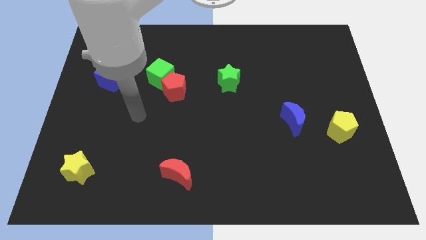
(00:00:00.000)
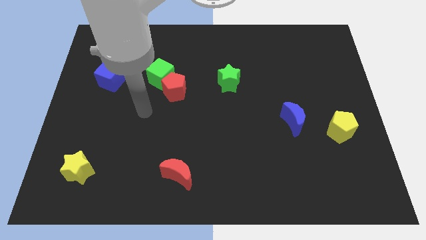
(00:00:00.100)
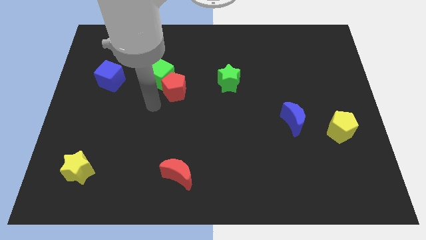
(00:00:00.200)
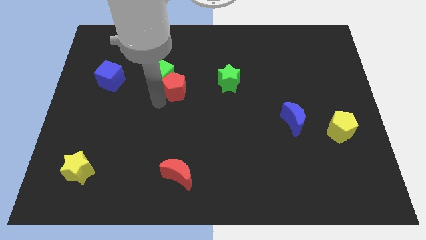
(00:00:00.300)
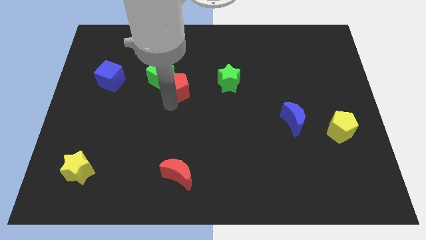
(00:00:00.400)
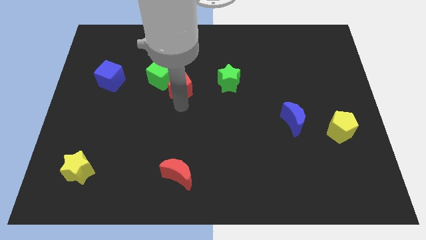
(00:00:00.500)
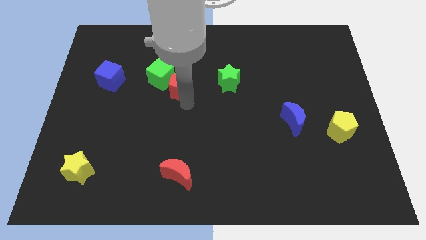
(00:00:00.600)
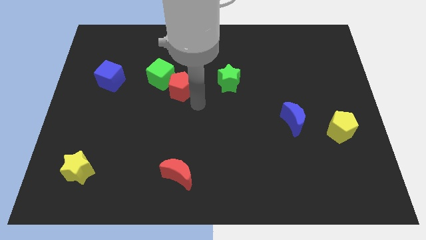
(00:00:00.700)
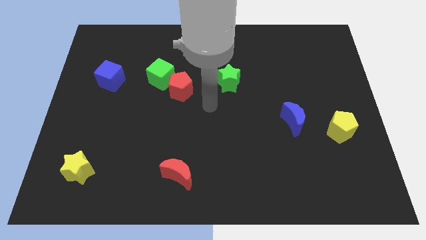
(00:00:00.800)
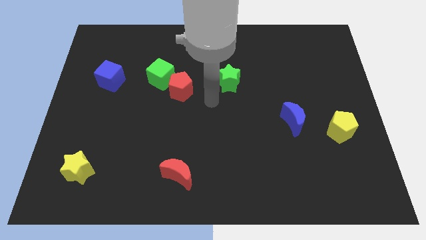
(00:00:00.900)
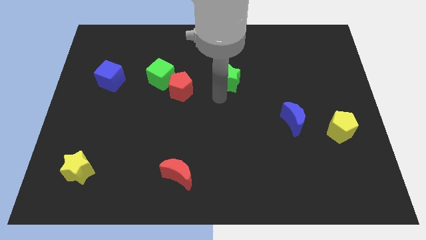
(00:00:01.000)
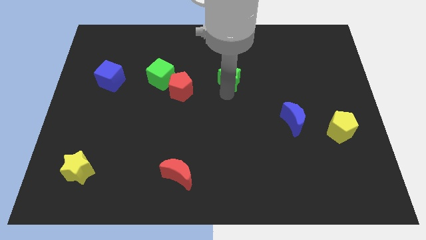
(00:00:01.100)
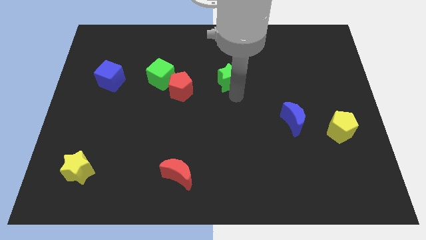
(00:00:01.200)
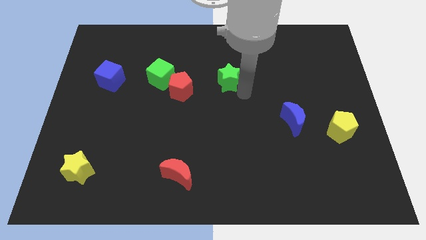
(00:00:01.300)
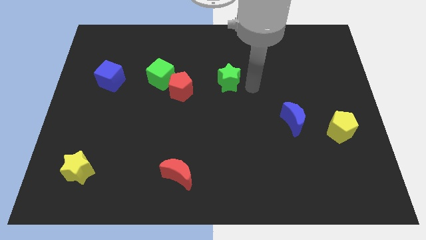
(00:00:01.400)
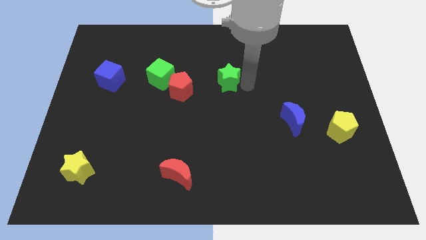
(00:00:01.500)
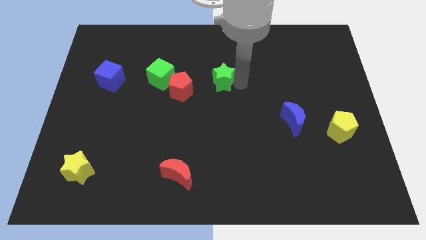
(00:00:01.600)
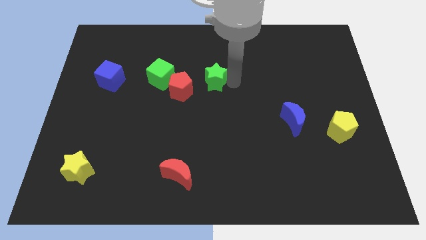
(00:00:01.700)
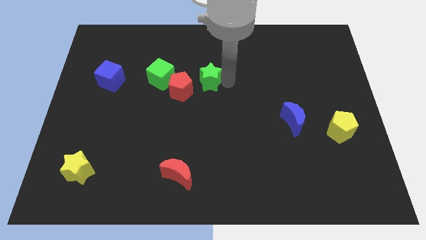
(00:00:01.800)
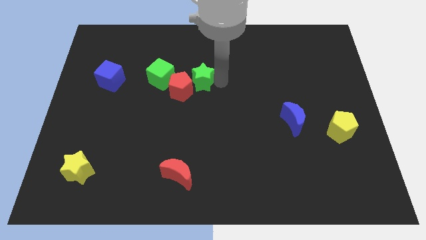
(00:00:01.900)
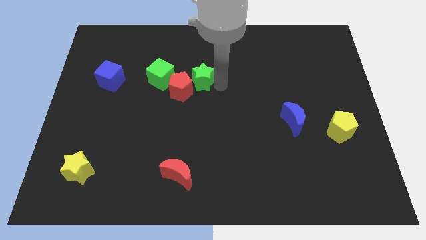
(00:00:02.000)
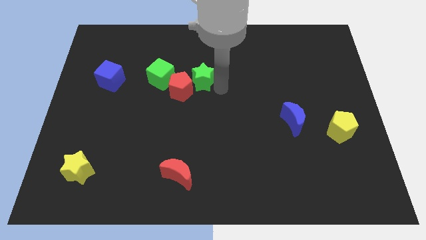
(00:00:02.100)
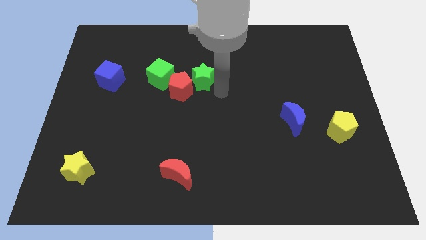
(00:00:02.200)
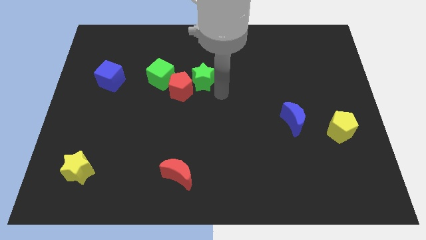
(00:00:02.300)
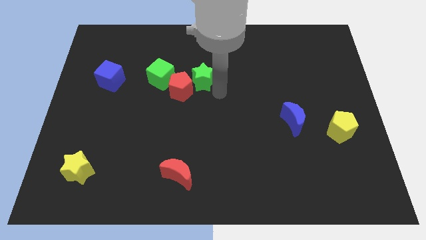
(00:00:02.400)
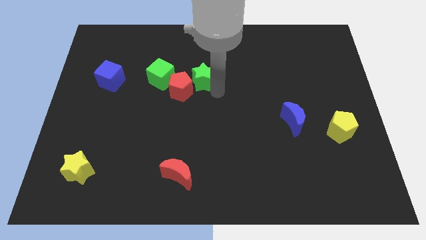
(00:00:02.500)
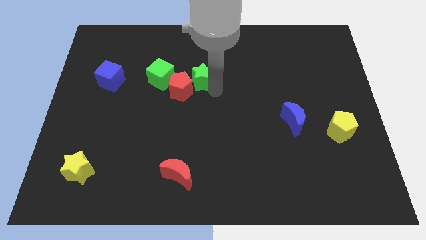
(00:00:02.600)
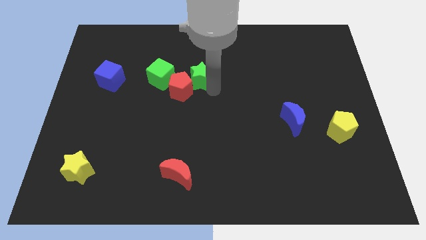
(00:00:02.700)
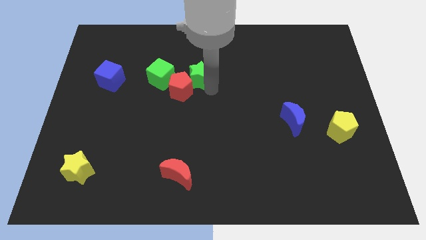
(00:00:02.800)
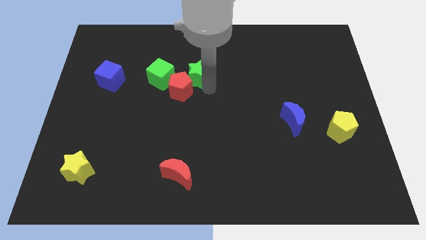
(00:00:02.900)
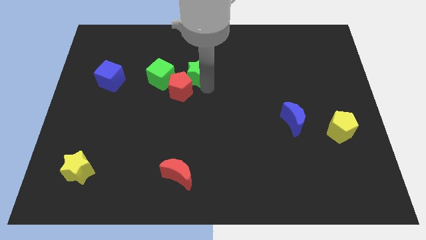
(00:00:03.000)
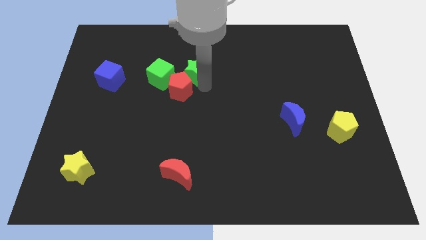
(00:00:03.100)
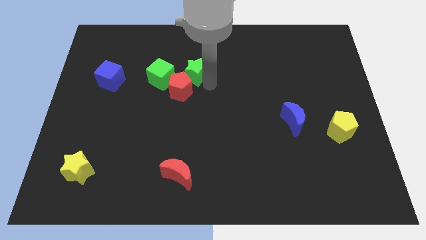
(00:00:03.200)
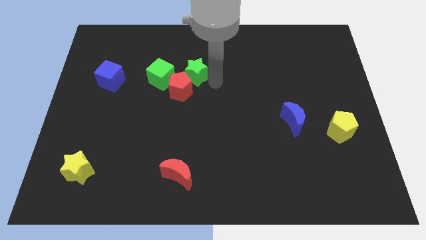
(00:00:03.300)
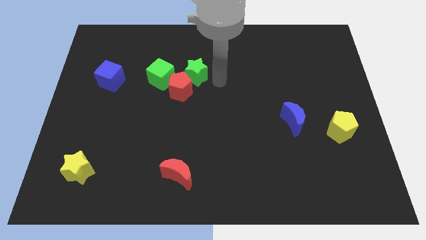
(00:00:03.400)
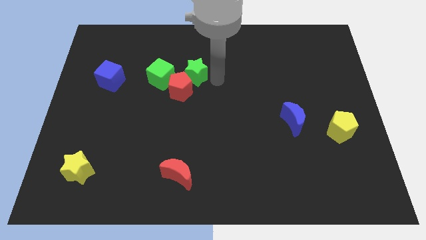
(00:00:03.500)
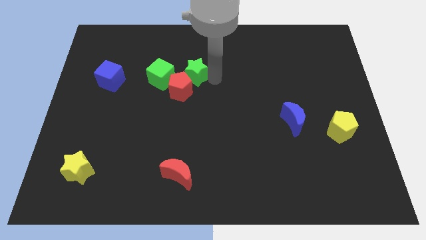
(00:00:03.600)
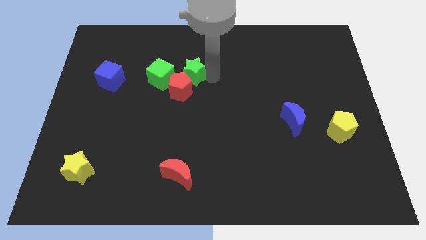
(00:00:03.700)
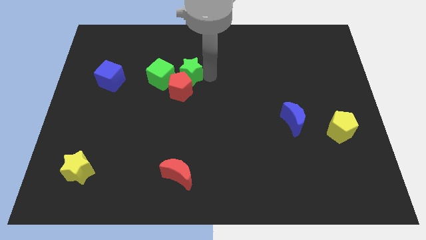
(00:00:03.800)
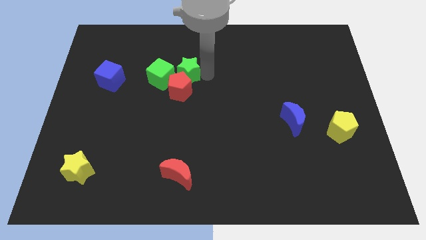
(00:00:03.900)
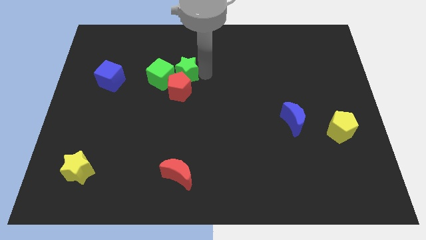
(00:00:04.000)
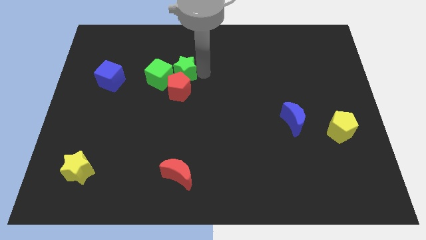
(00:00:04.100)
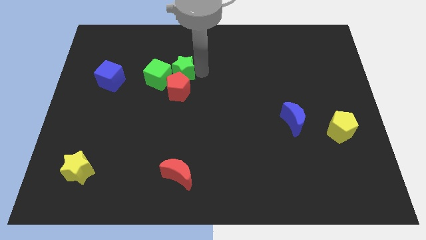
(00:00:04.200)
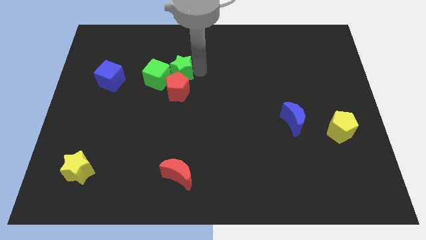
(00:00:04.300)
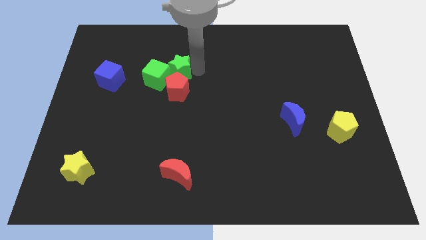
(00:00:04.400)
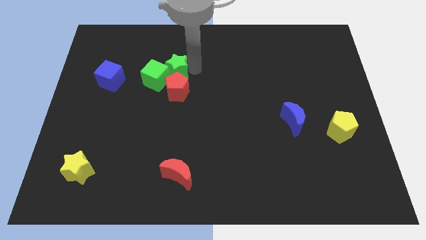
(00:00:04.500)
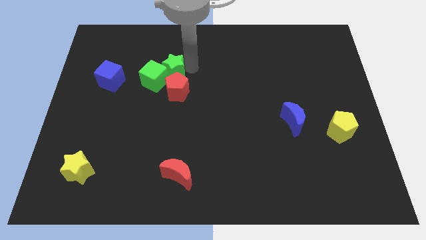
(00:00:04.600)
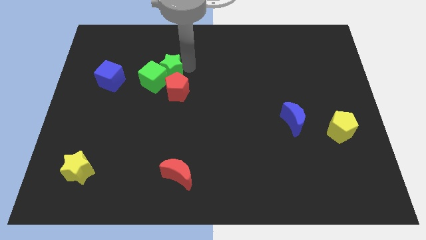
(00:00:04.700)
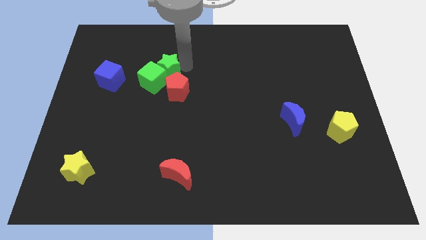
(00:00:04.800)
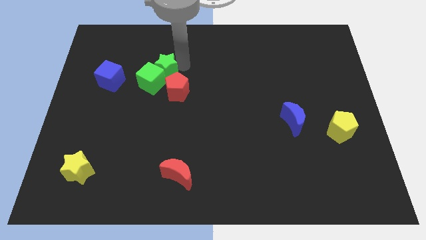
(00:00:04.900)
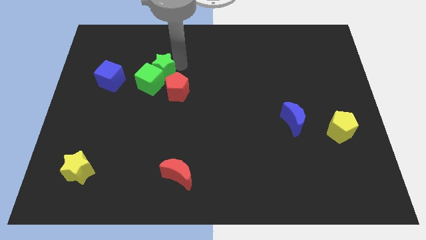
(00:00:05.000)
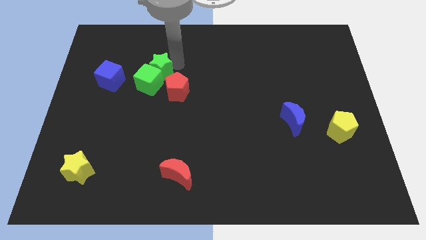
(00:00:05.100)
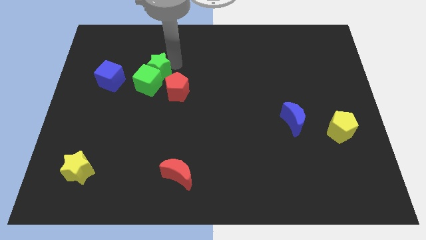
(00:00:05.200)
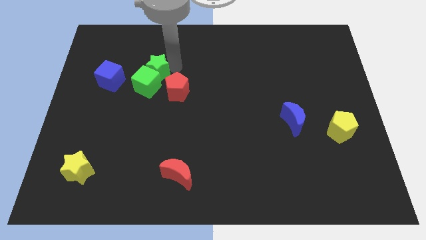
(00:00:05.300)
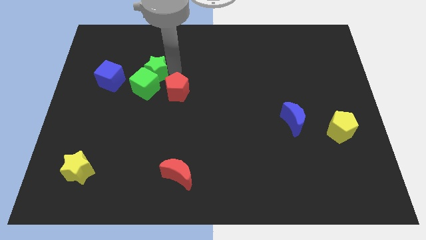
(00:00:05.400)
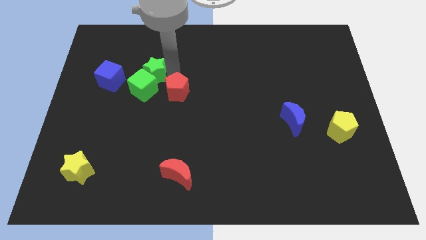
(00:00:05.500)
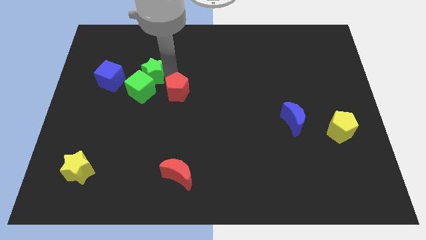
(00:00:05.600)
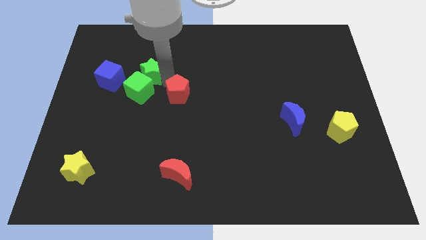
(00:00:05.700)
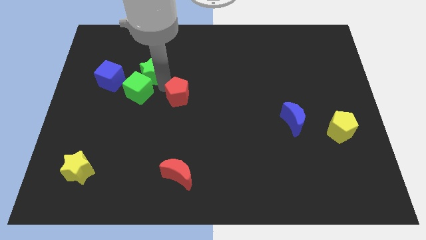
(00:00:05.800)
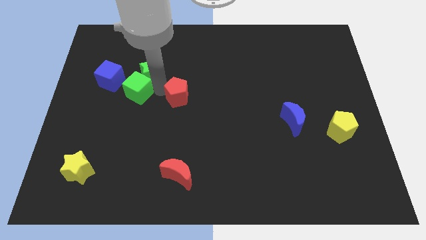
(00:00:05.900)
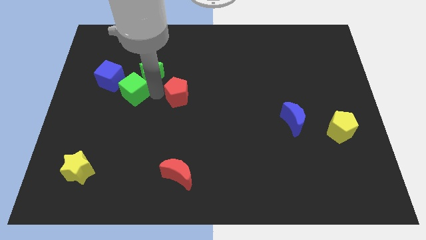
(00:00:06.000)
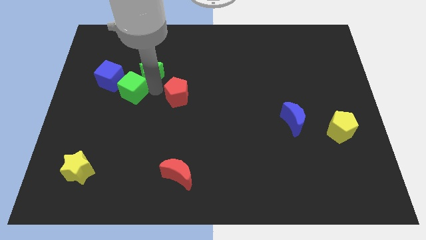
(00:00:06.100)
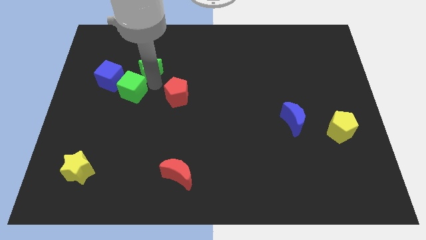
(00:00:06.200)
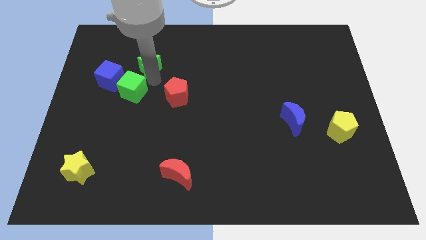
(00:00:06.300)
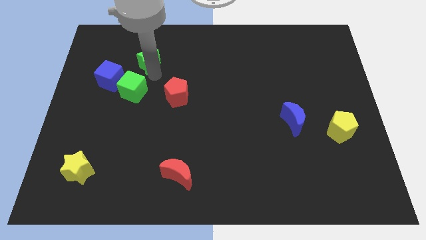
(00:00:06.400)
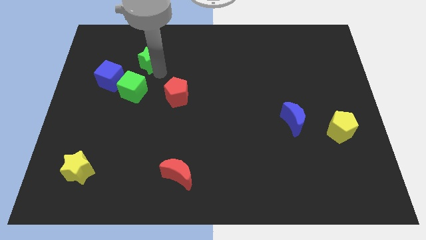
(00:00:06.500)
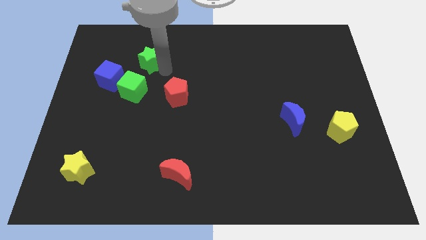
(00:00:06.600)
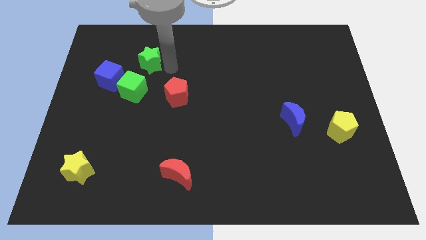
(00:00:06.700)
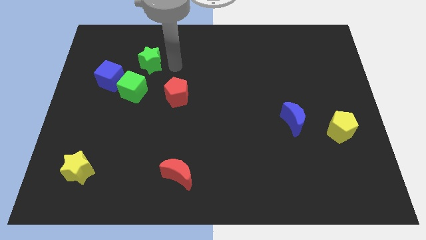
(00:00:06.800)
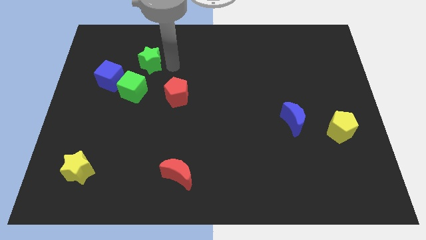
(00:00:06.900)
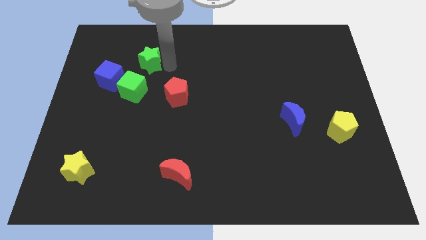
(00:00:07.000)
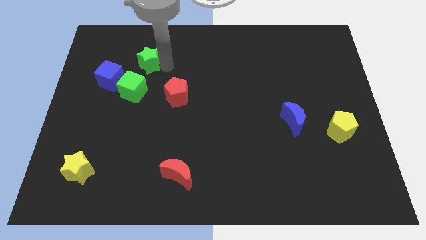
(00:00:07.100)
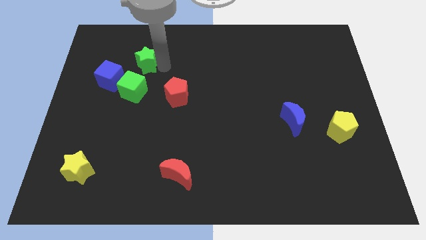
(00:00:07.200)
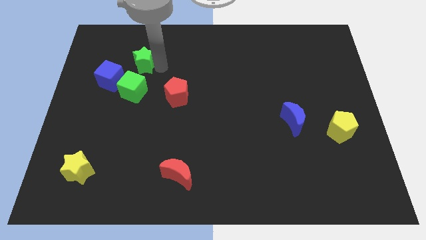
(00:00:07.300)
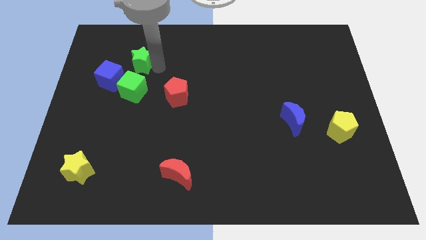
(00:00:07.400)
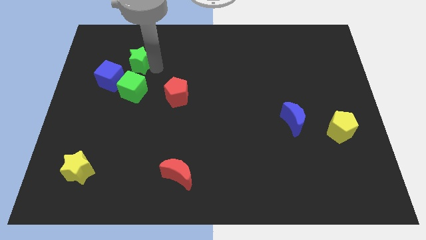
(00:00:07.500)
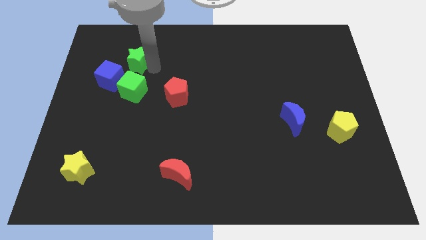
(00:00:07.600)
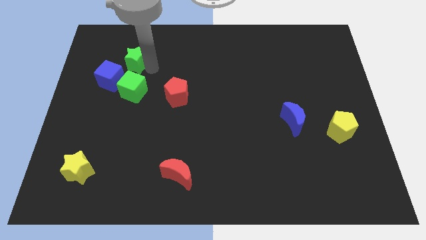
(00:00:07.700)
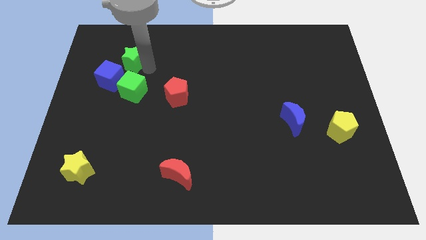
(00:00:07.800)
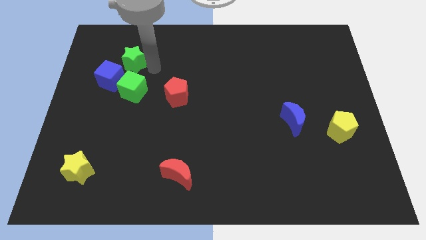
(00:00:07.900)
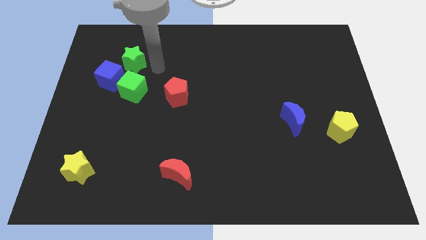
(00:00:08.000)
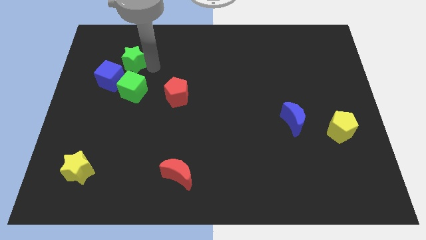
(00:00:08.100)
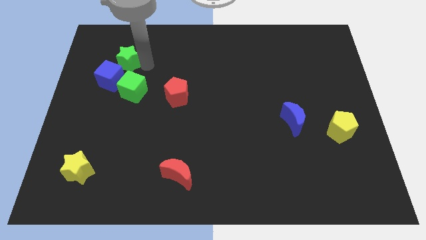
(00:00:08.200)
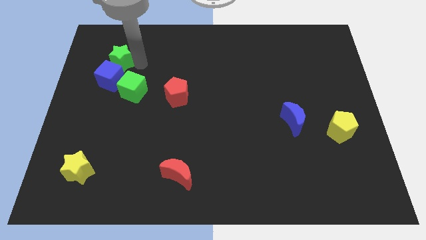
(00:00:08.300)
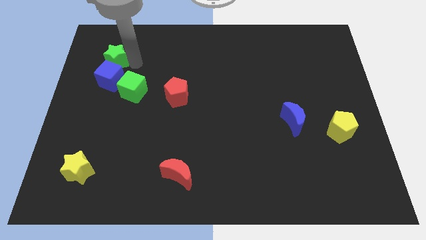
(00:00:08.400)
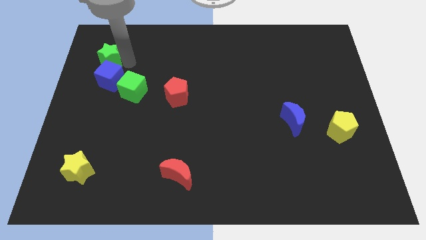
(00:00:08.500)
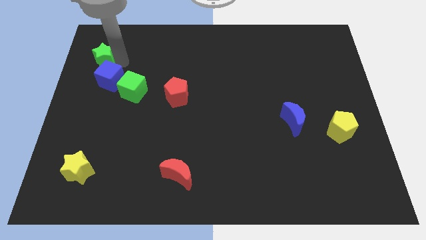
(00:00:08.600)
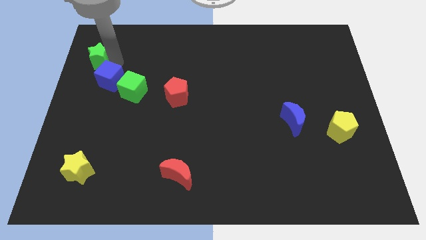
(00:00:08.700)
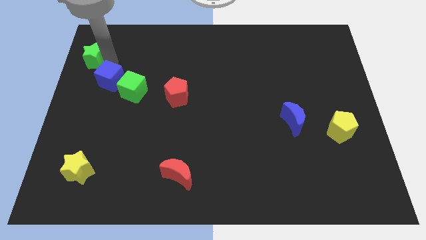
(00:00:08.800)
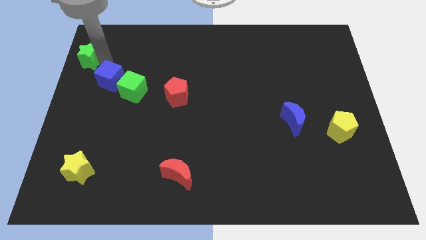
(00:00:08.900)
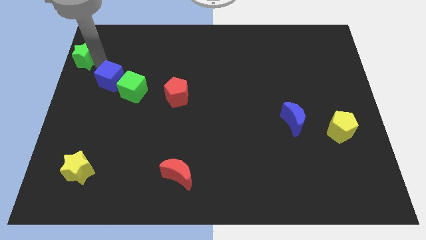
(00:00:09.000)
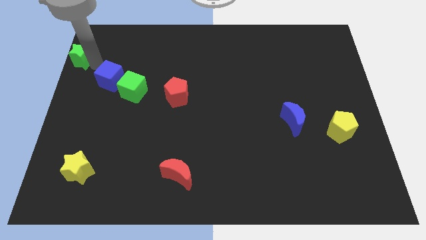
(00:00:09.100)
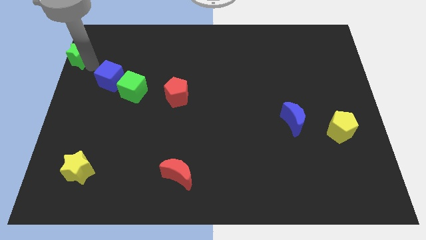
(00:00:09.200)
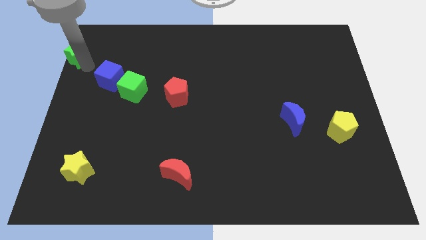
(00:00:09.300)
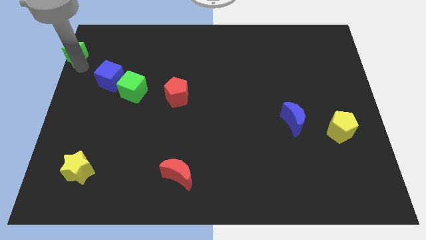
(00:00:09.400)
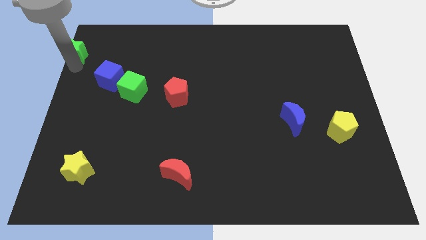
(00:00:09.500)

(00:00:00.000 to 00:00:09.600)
put the green star to the top left of the board
